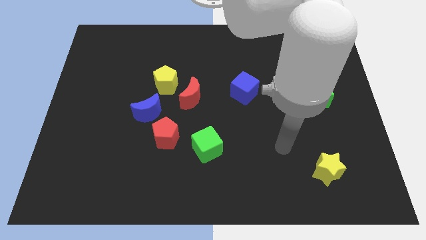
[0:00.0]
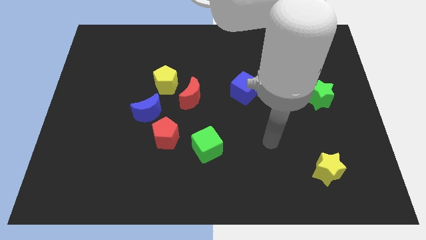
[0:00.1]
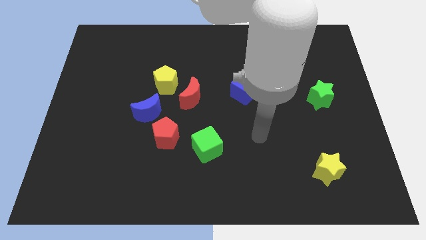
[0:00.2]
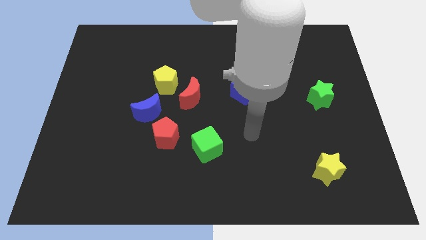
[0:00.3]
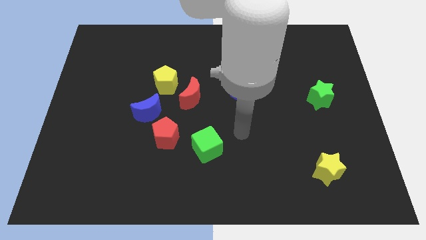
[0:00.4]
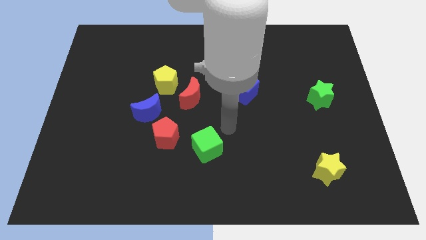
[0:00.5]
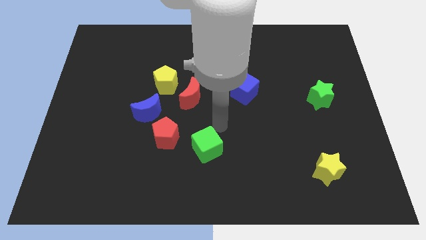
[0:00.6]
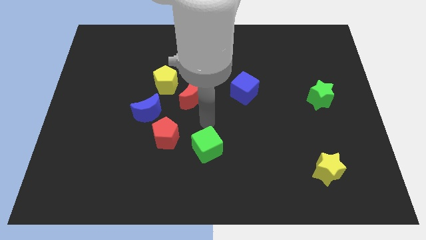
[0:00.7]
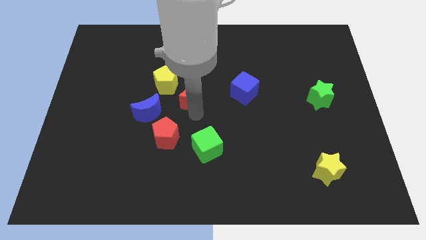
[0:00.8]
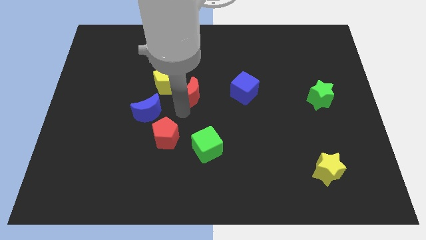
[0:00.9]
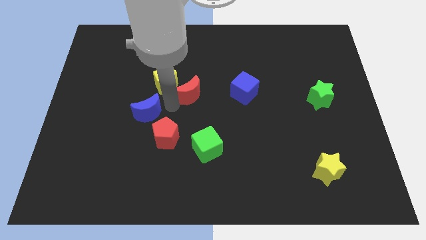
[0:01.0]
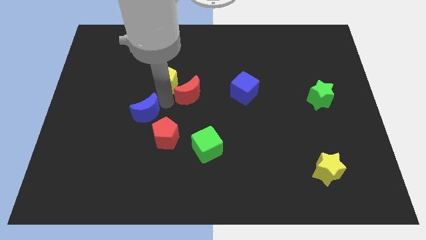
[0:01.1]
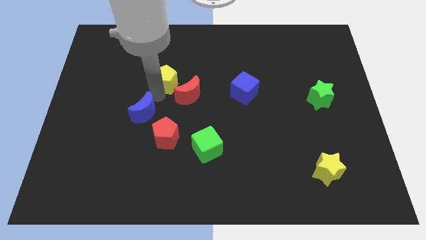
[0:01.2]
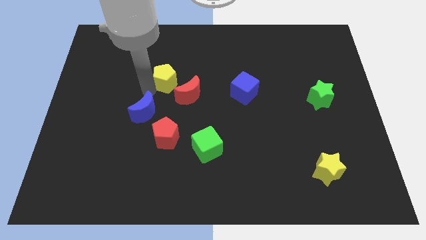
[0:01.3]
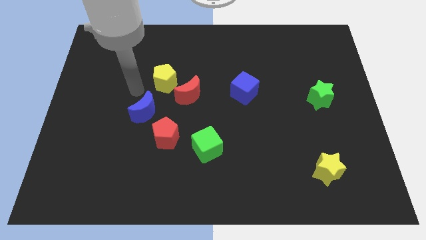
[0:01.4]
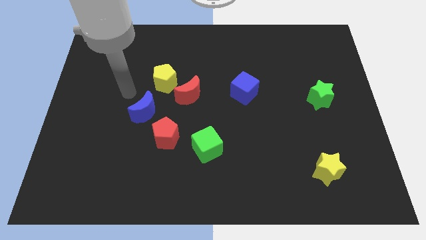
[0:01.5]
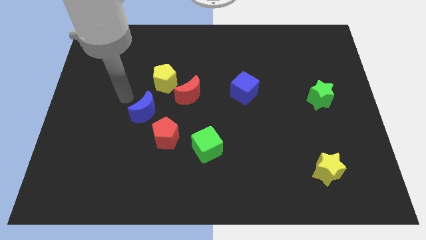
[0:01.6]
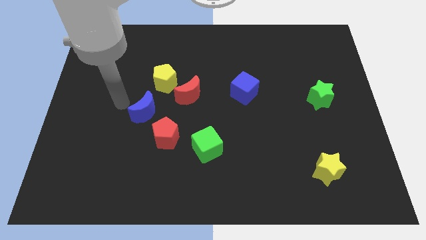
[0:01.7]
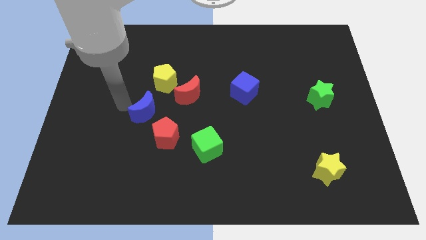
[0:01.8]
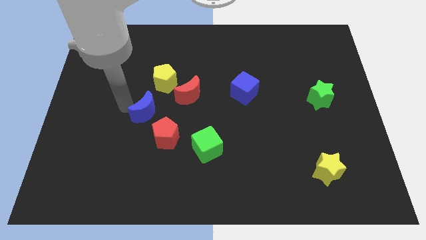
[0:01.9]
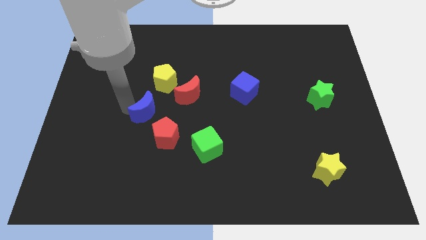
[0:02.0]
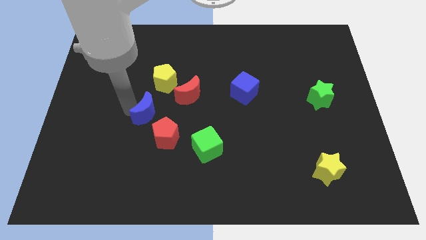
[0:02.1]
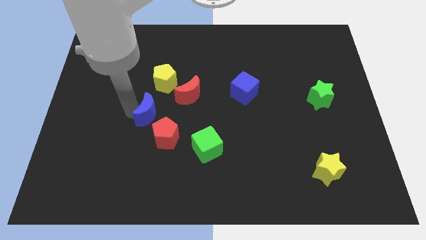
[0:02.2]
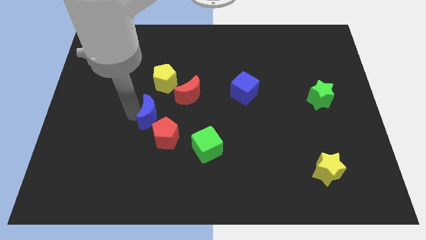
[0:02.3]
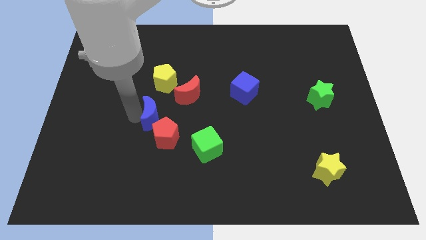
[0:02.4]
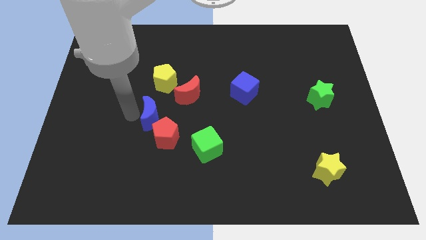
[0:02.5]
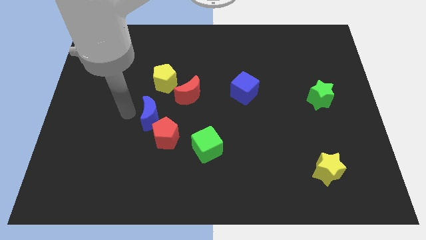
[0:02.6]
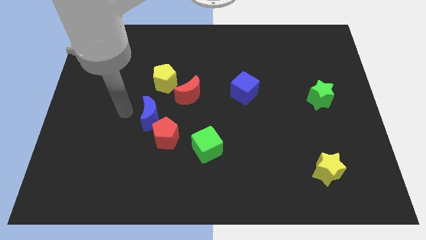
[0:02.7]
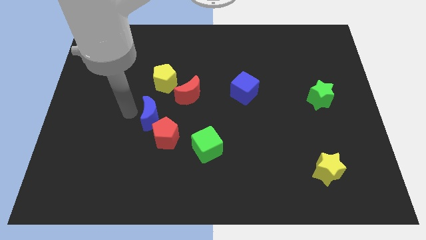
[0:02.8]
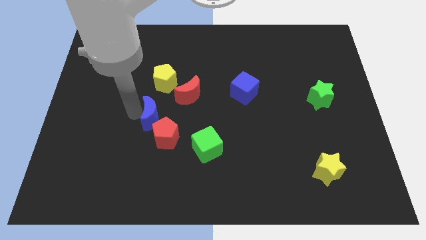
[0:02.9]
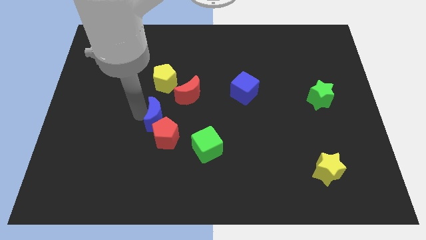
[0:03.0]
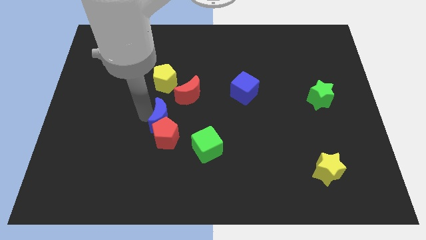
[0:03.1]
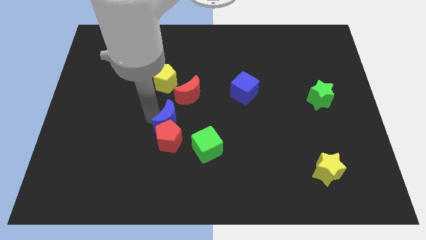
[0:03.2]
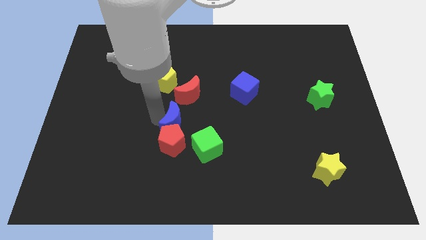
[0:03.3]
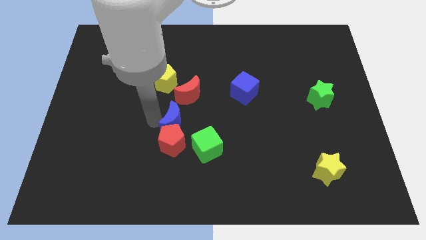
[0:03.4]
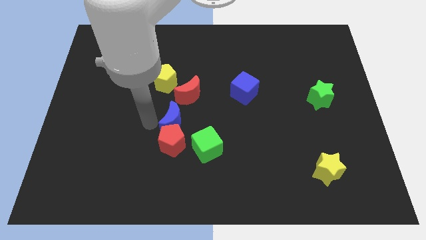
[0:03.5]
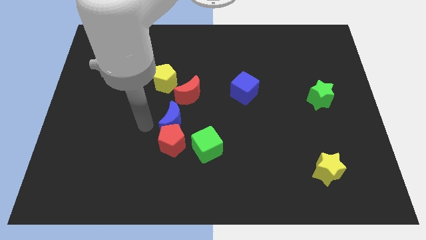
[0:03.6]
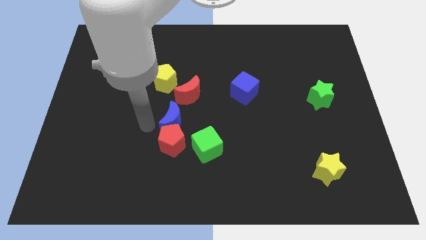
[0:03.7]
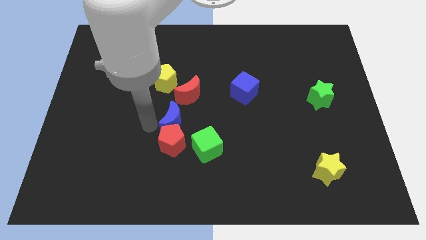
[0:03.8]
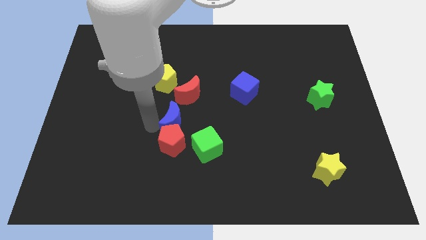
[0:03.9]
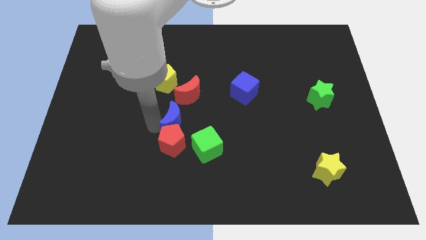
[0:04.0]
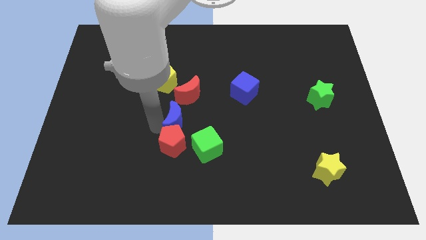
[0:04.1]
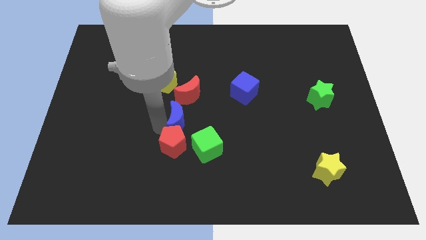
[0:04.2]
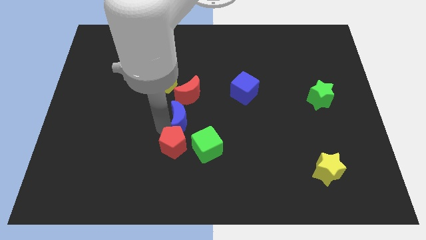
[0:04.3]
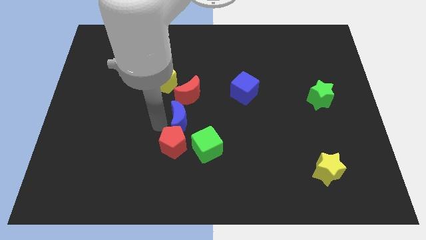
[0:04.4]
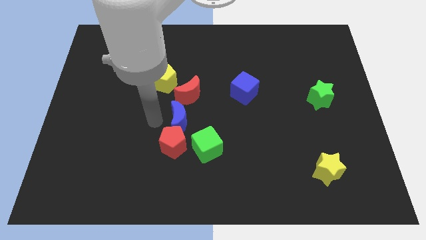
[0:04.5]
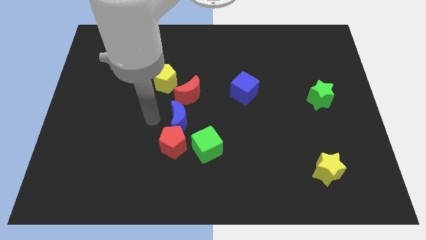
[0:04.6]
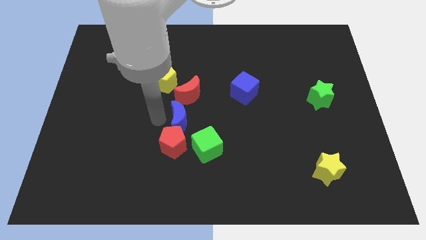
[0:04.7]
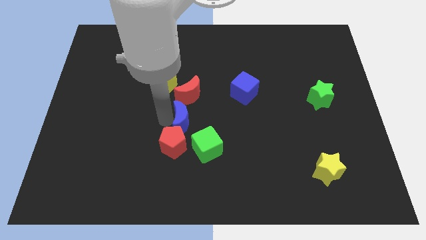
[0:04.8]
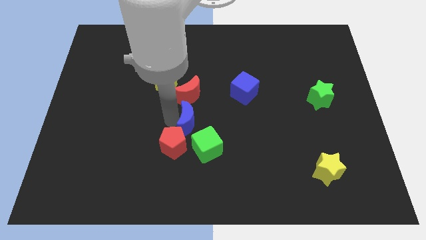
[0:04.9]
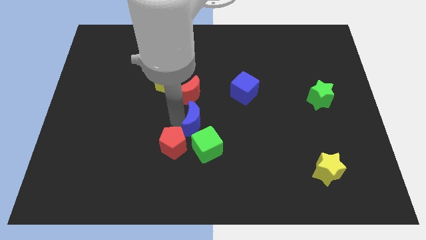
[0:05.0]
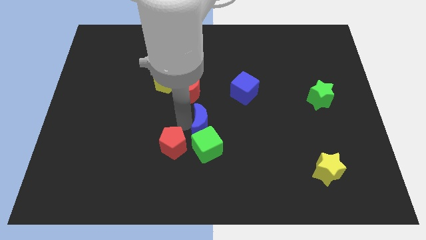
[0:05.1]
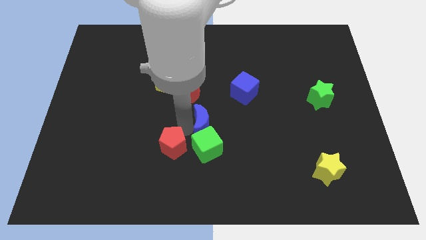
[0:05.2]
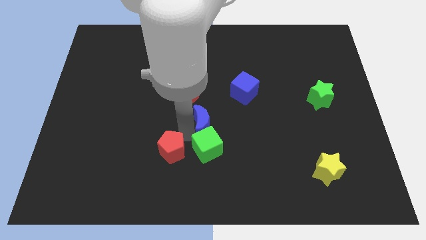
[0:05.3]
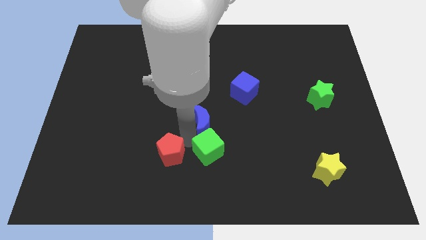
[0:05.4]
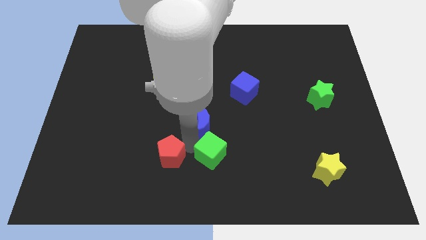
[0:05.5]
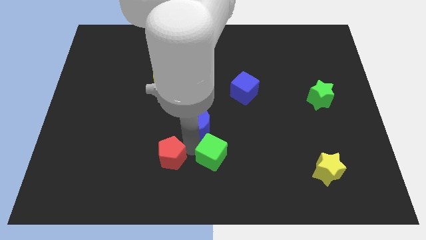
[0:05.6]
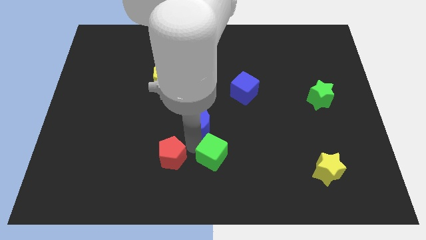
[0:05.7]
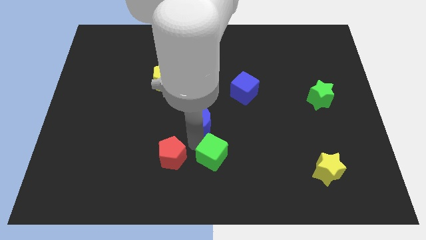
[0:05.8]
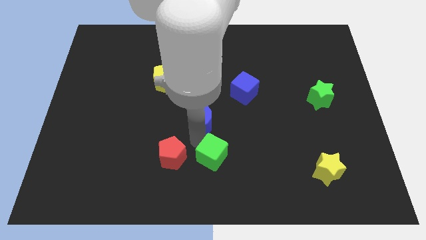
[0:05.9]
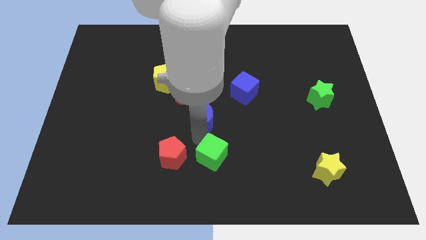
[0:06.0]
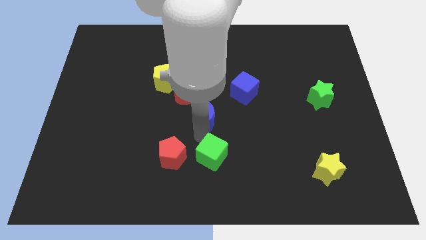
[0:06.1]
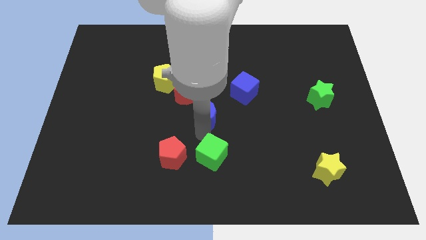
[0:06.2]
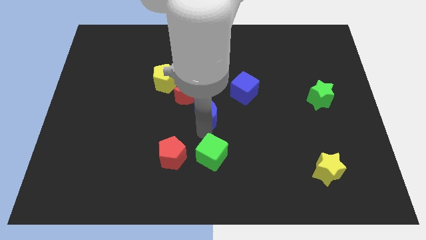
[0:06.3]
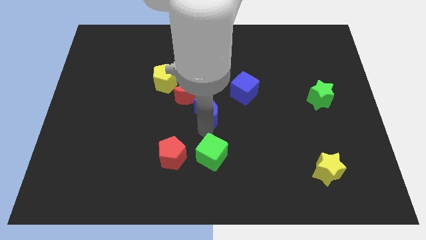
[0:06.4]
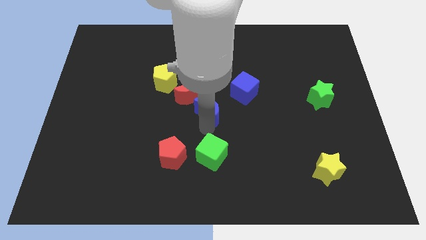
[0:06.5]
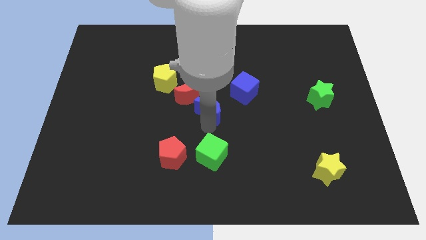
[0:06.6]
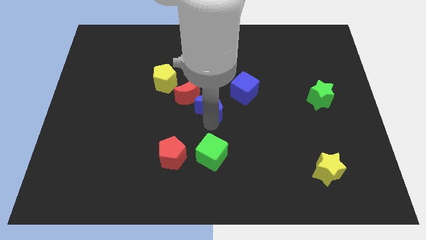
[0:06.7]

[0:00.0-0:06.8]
slide the blue moon up and then to the right a little

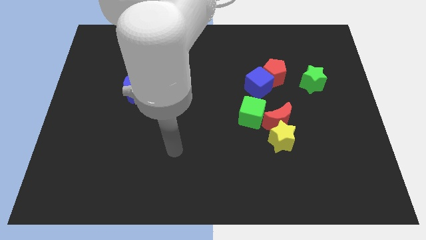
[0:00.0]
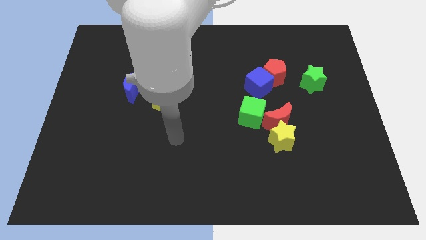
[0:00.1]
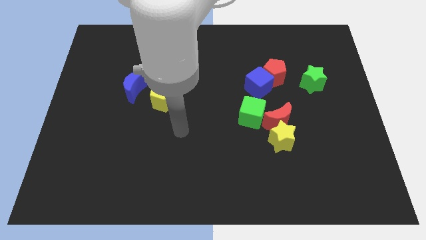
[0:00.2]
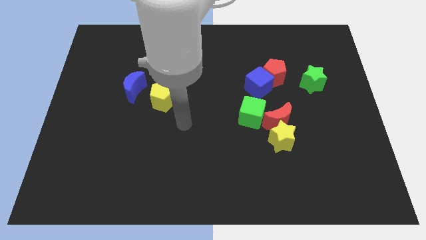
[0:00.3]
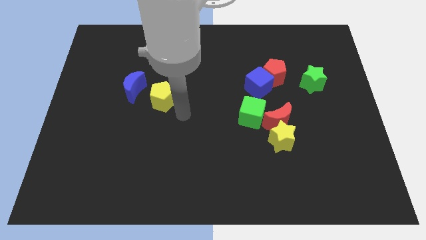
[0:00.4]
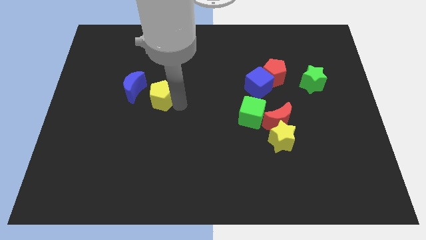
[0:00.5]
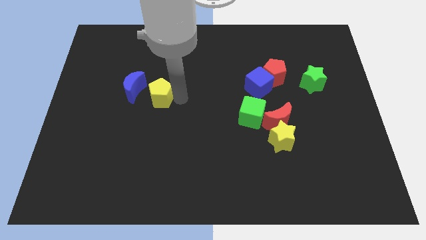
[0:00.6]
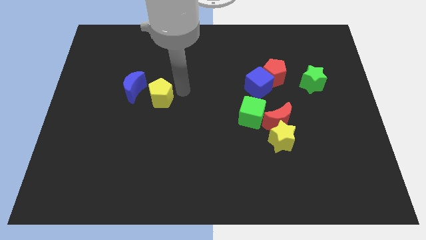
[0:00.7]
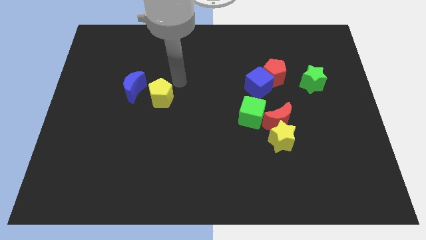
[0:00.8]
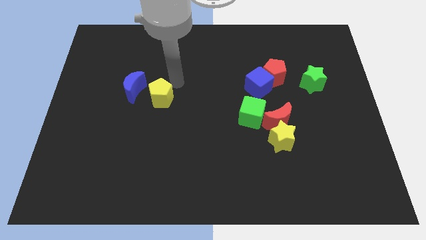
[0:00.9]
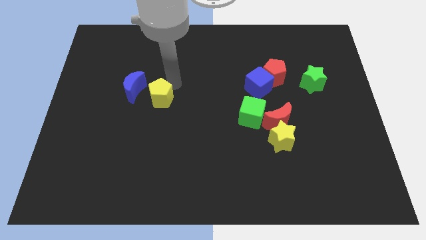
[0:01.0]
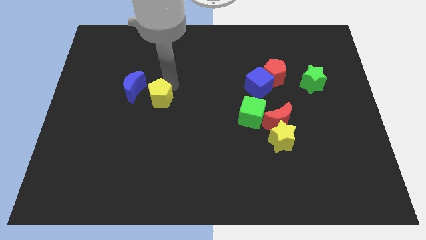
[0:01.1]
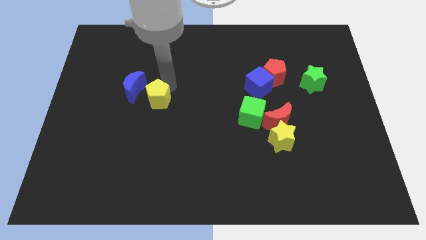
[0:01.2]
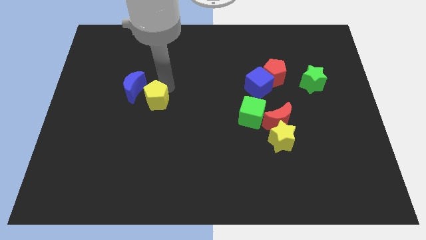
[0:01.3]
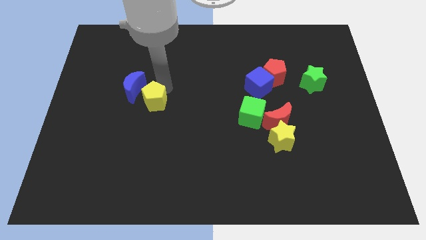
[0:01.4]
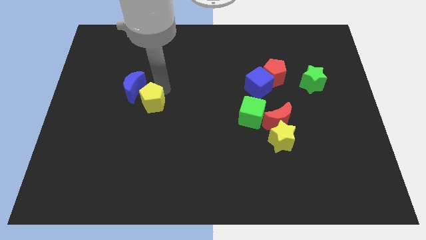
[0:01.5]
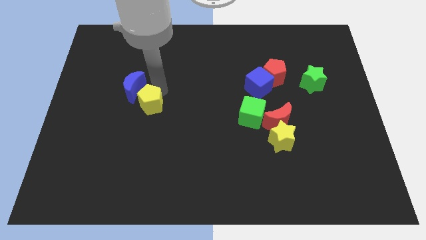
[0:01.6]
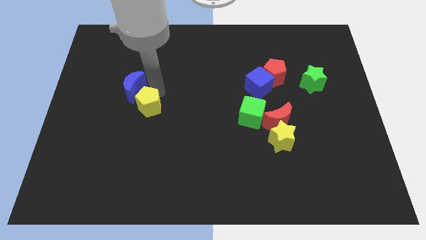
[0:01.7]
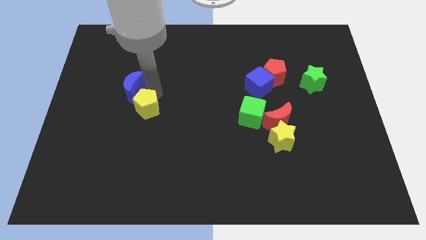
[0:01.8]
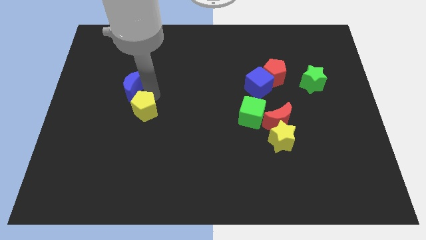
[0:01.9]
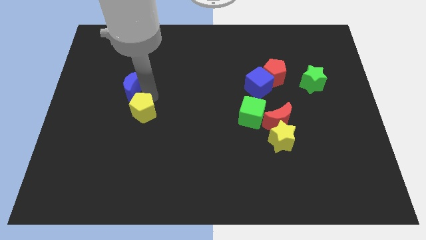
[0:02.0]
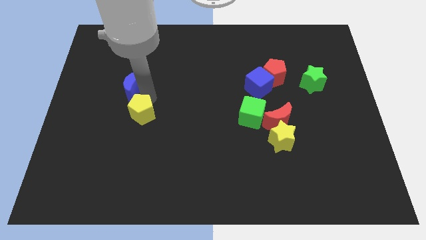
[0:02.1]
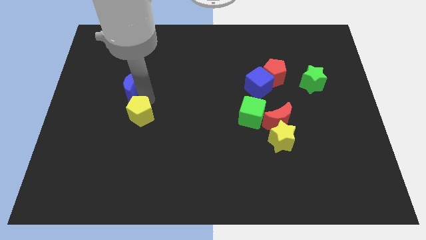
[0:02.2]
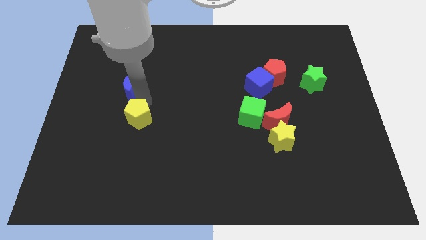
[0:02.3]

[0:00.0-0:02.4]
slide the yellow pentagon slightly down and to the left diagonally
